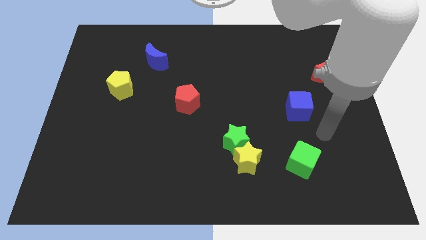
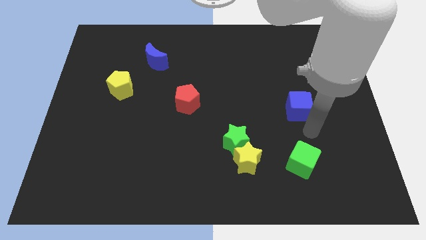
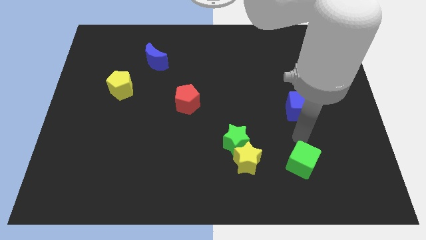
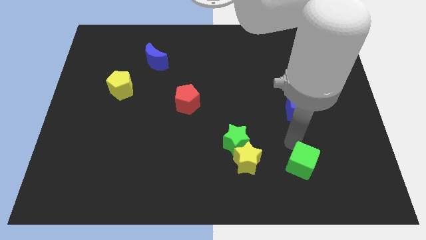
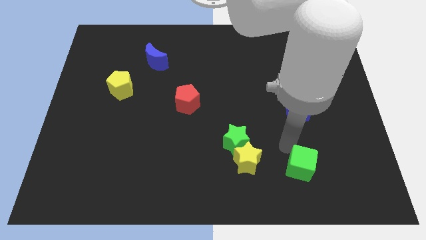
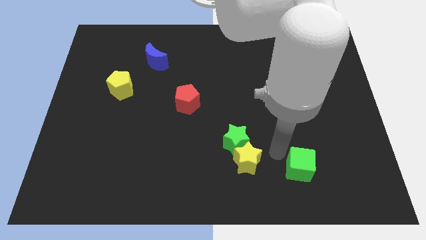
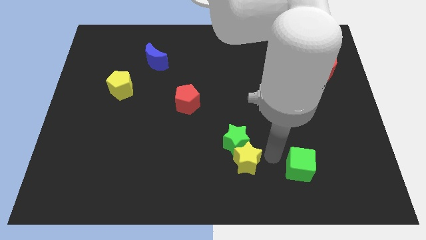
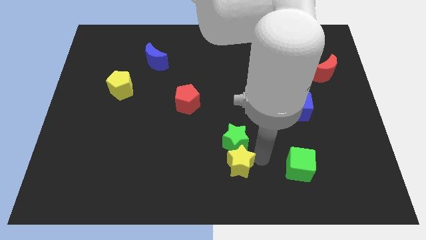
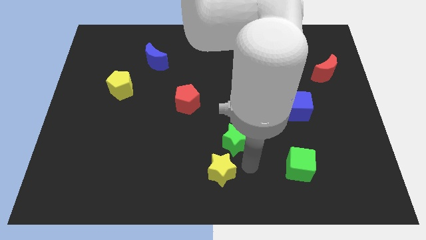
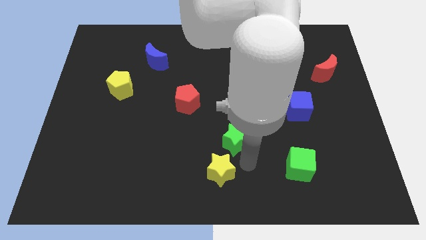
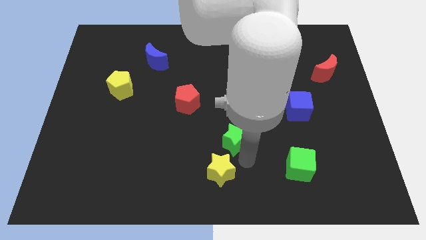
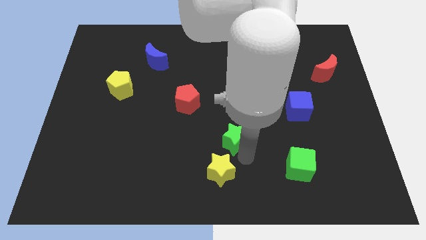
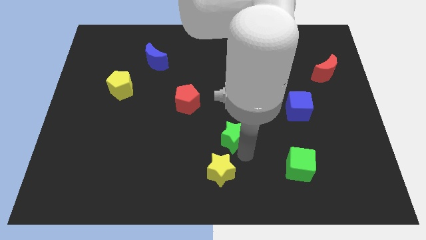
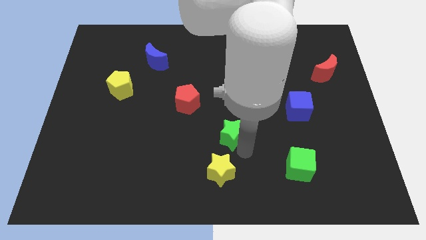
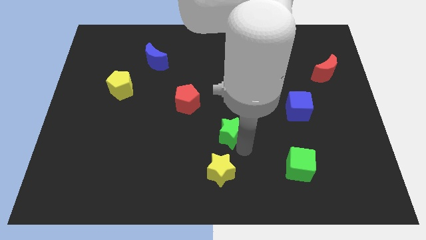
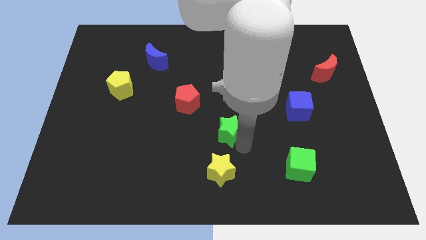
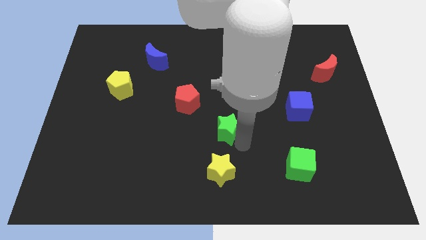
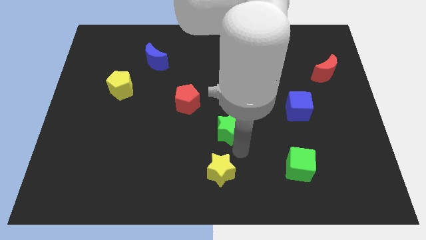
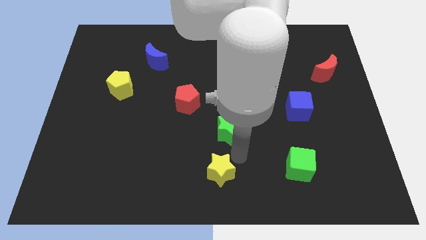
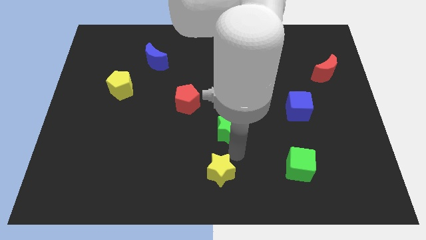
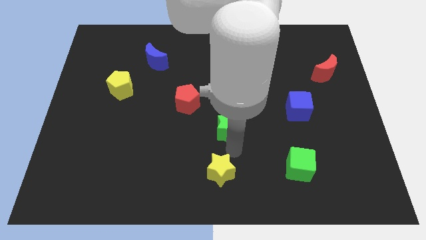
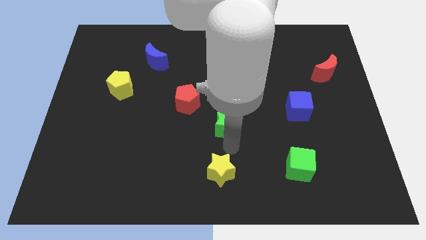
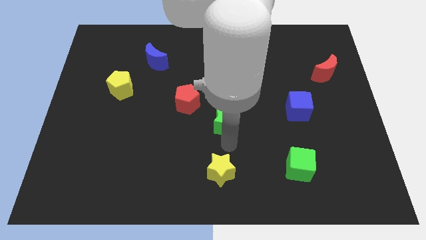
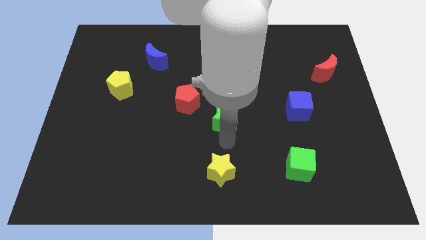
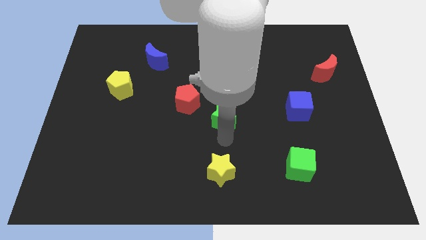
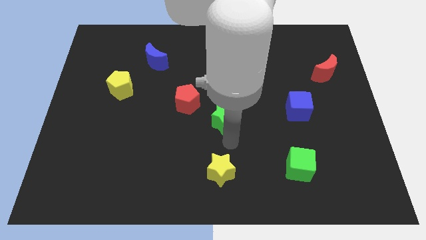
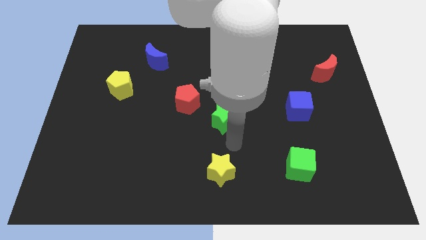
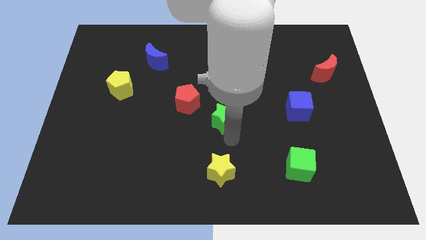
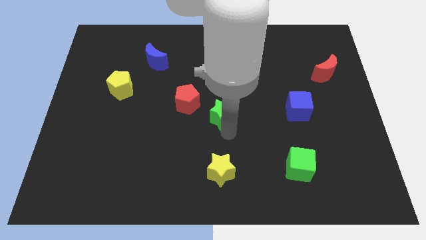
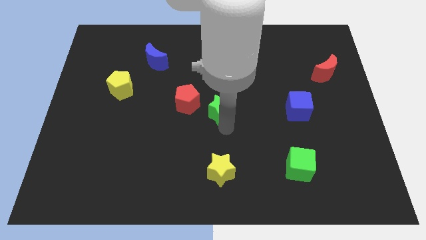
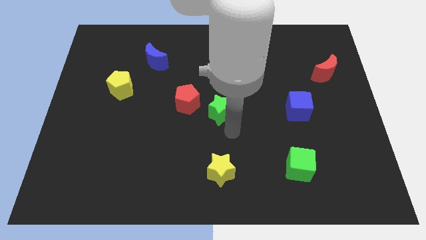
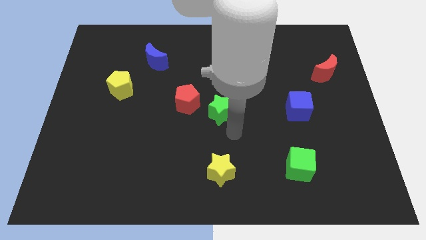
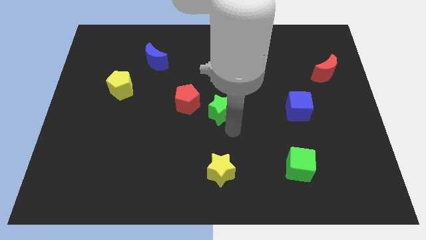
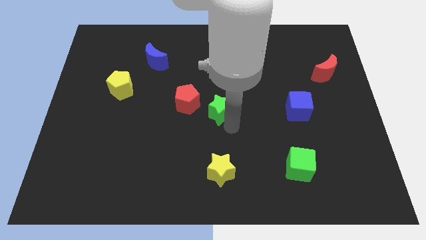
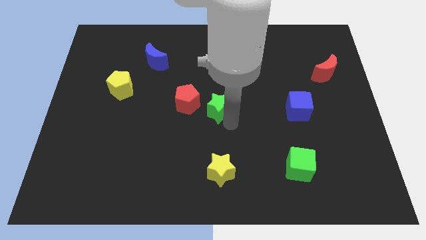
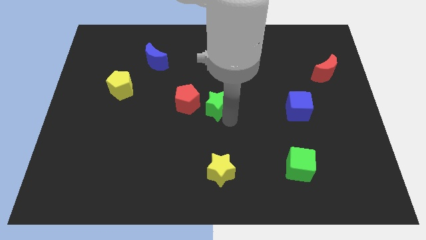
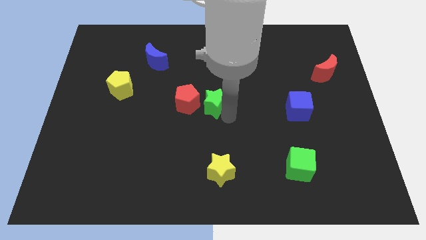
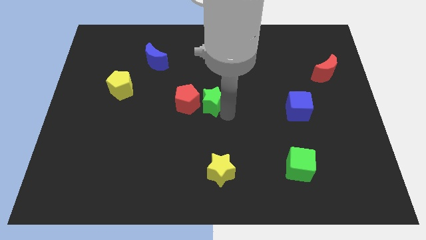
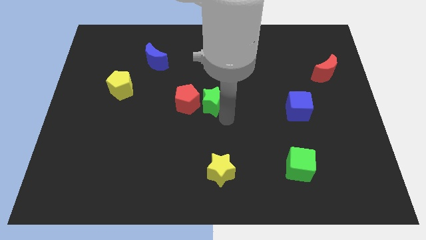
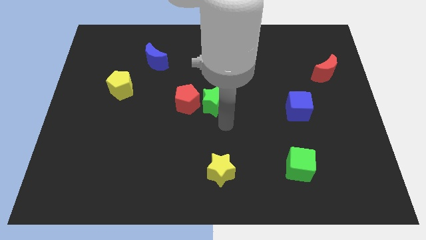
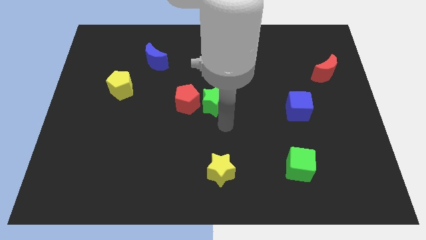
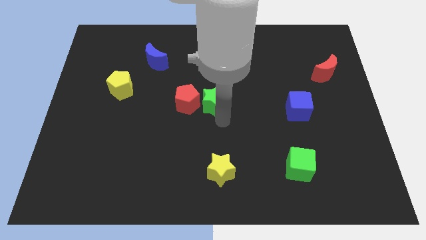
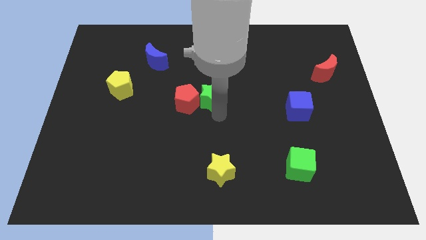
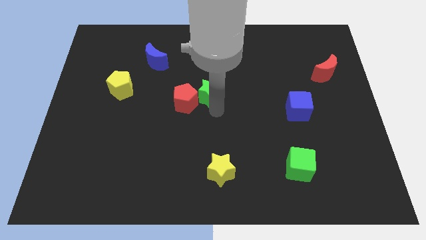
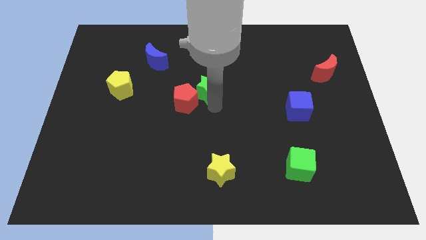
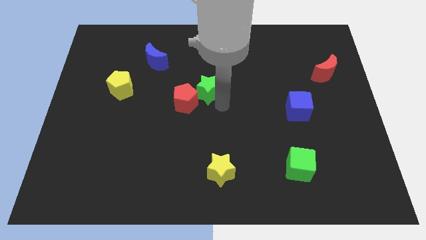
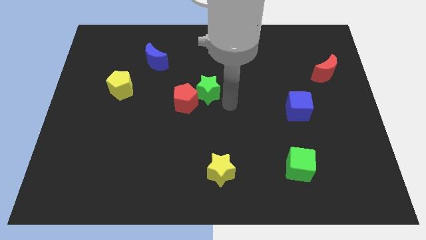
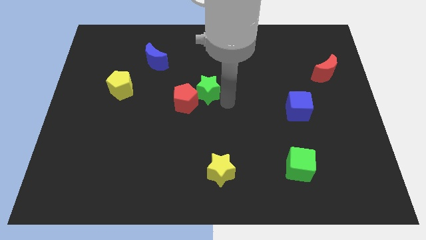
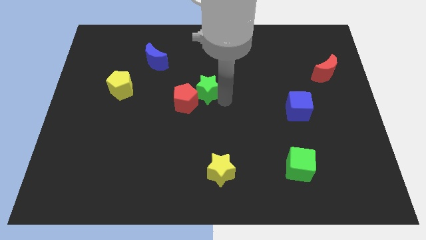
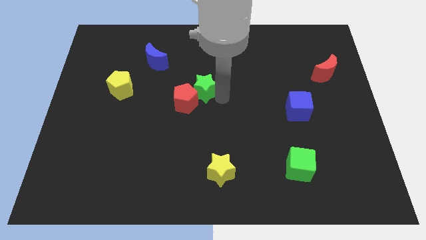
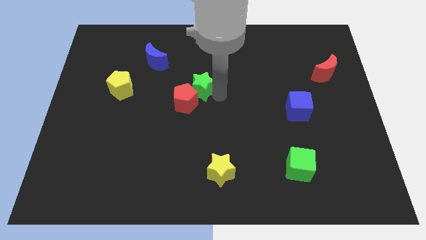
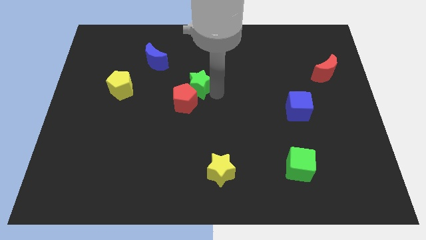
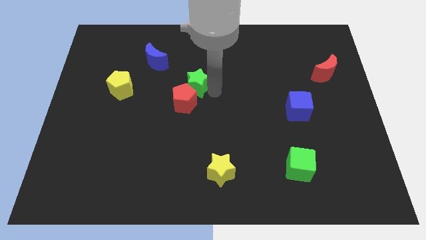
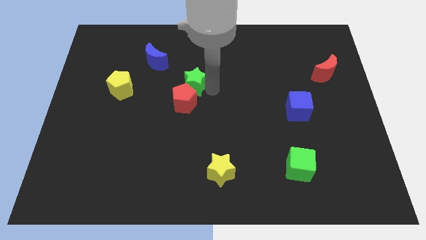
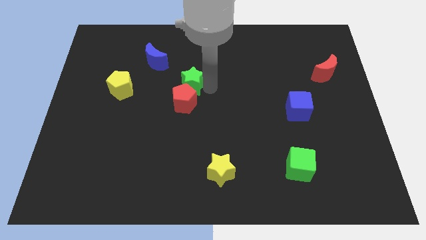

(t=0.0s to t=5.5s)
put the green star diagonally down and to the right of the blue moon

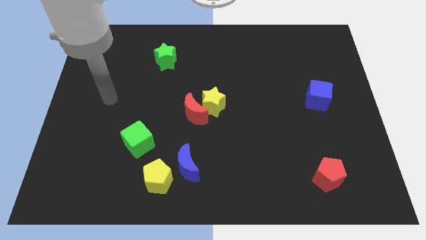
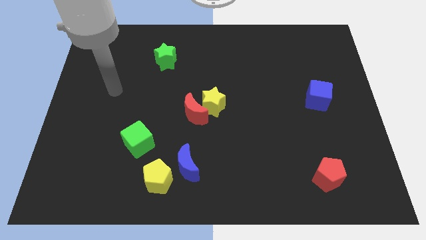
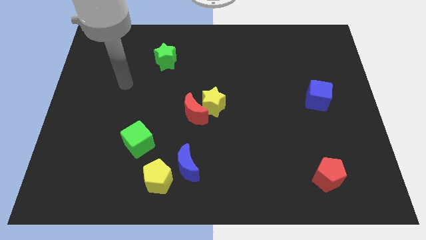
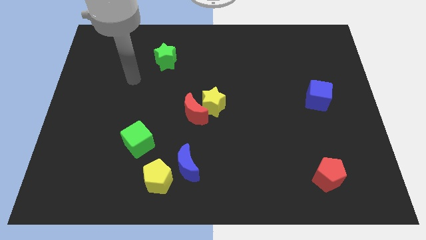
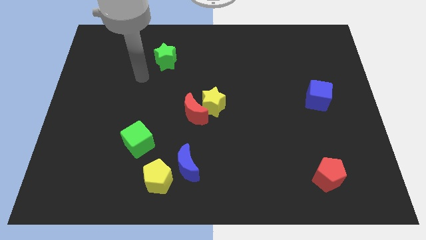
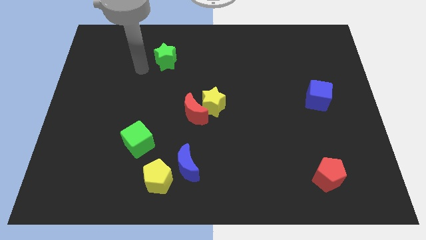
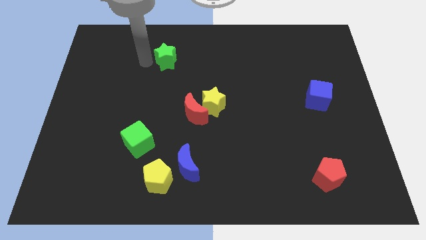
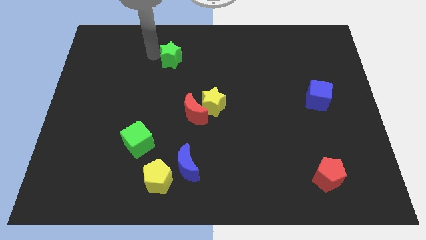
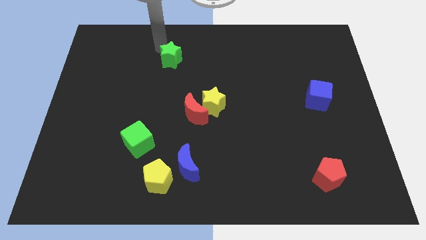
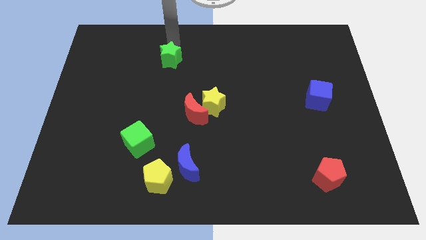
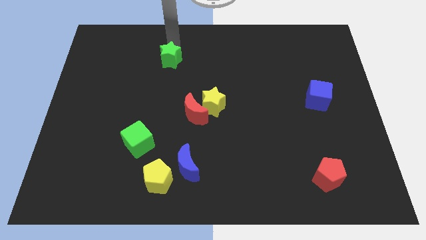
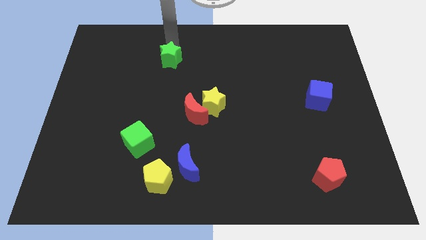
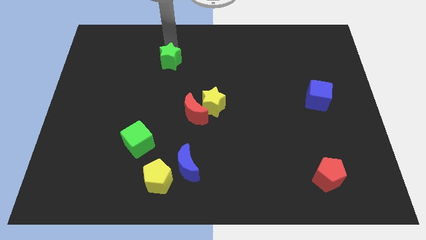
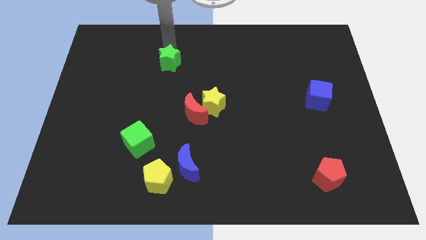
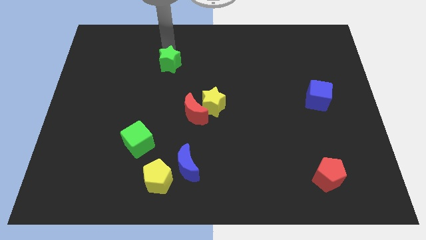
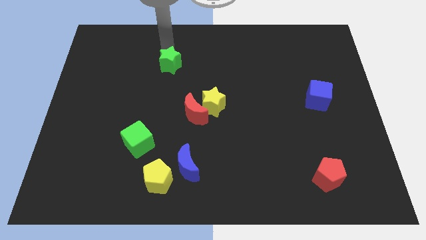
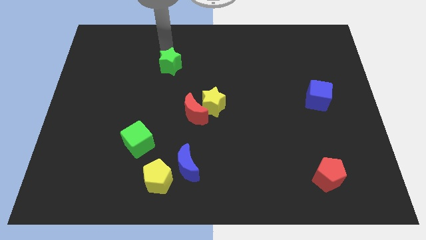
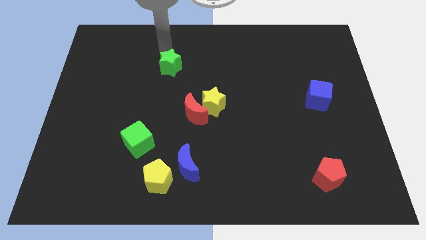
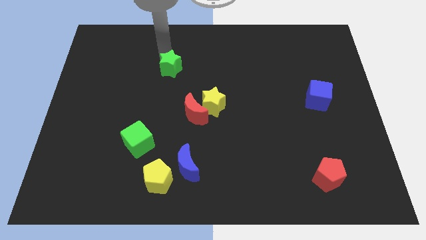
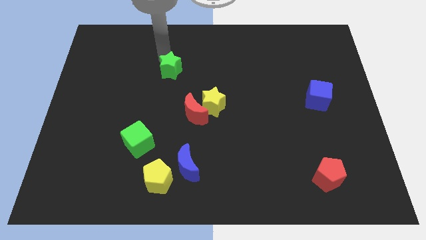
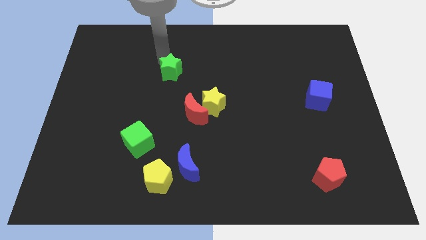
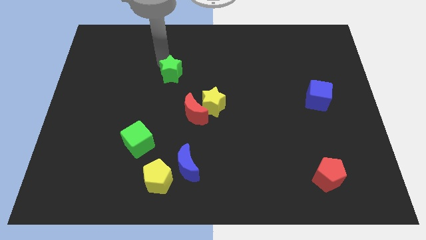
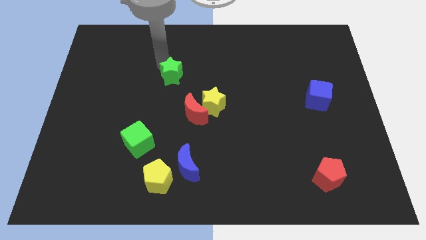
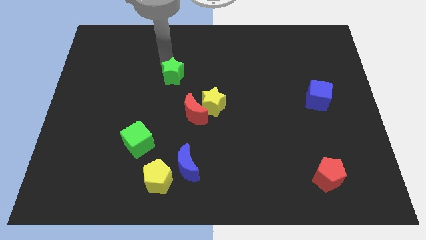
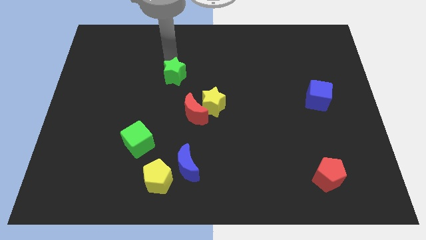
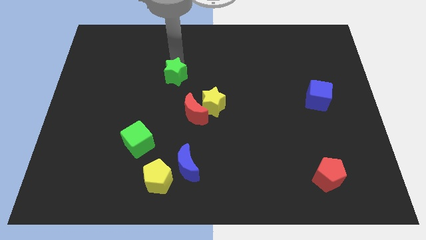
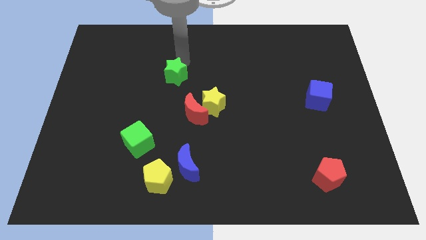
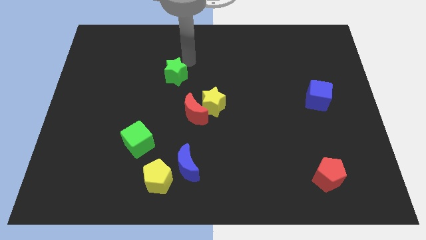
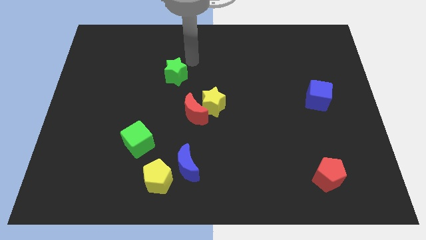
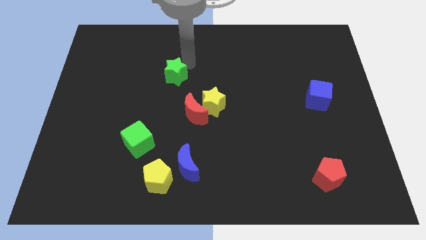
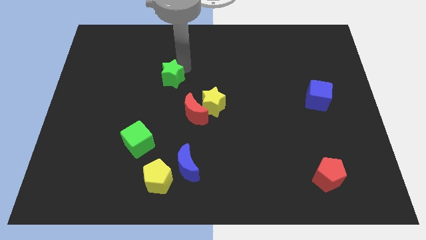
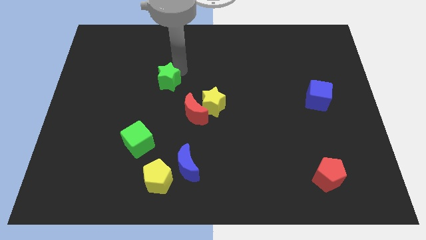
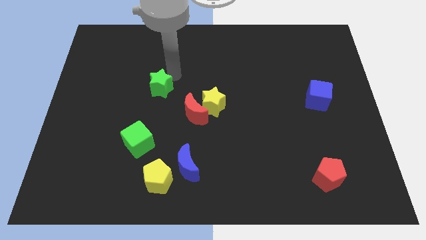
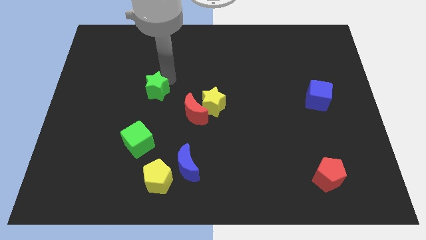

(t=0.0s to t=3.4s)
slide the green star above the green cube
